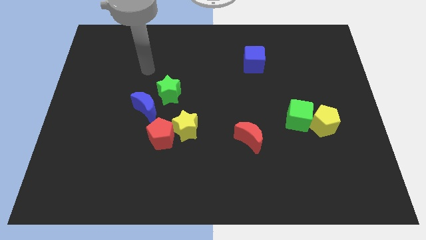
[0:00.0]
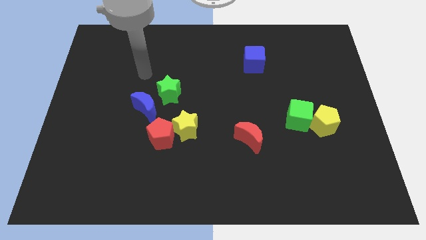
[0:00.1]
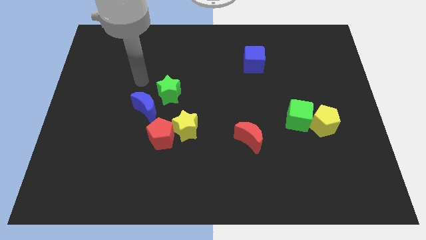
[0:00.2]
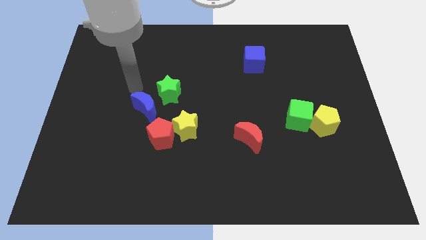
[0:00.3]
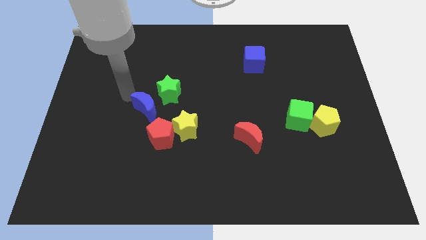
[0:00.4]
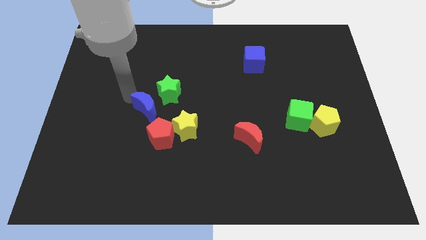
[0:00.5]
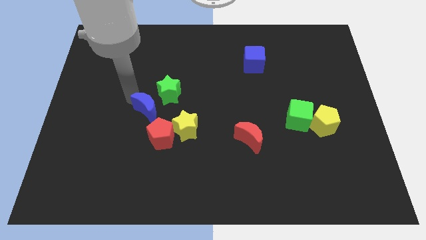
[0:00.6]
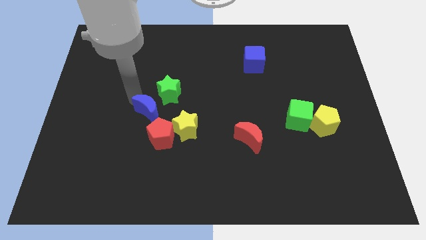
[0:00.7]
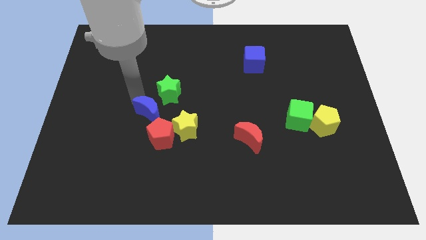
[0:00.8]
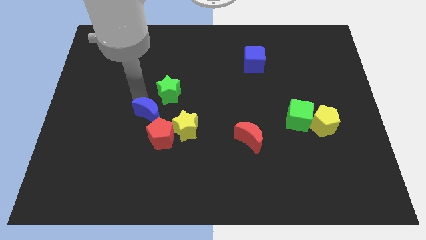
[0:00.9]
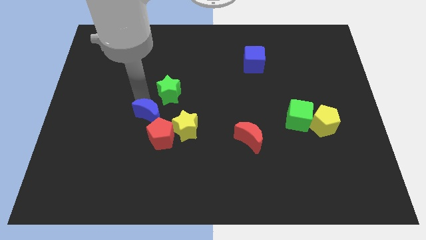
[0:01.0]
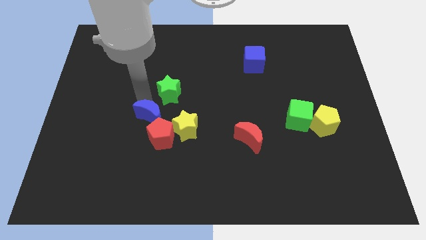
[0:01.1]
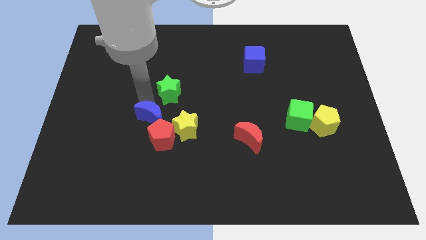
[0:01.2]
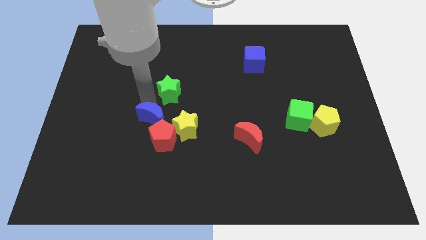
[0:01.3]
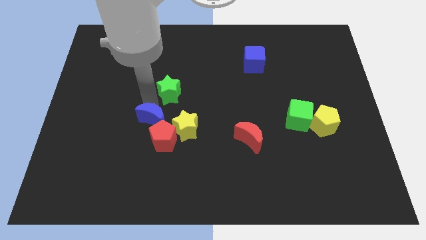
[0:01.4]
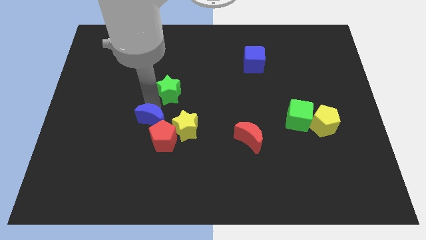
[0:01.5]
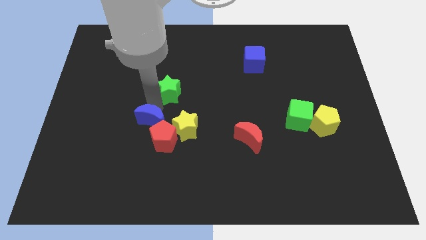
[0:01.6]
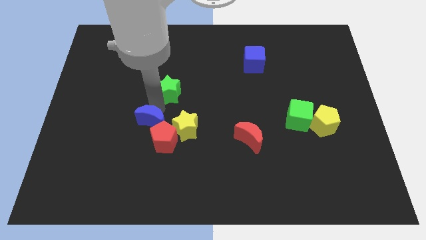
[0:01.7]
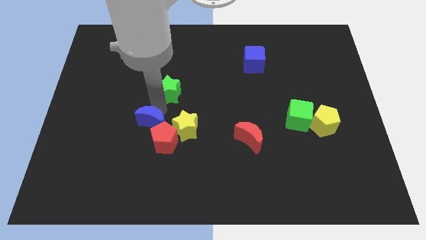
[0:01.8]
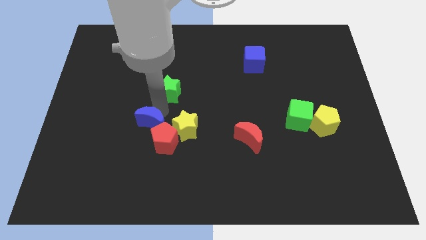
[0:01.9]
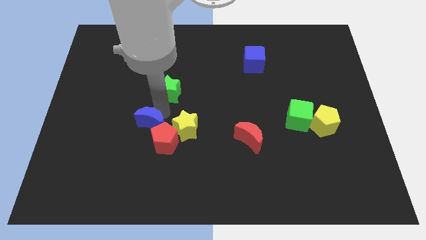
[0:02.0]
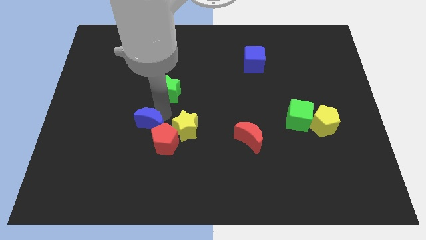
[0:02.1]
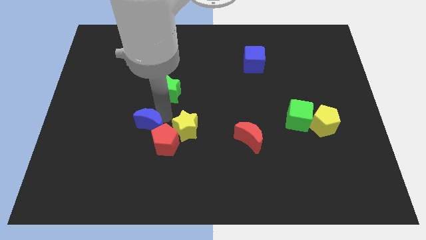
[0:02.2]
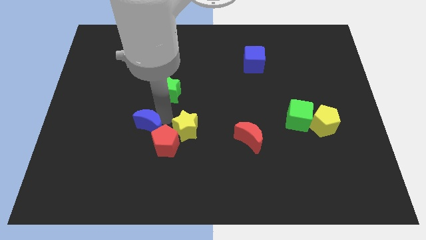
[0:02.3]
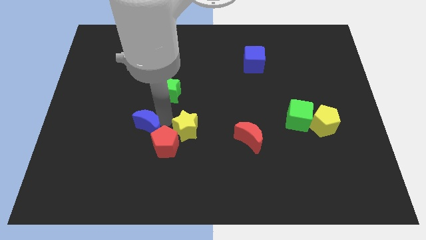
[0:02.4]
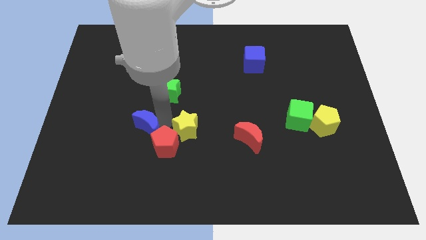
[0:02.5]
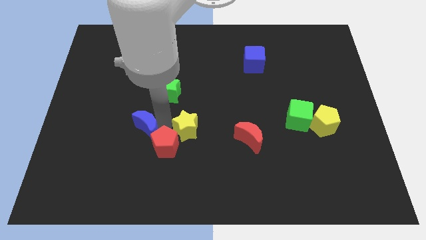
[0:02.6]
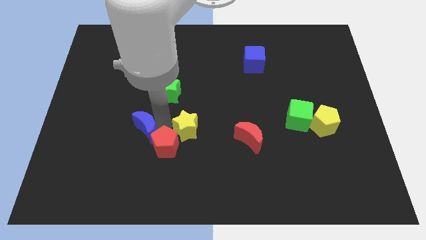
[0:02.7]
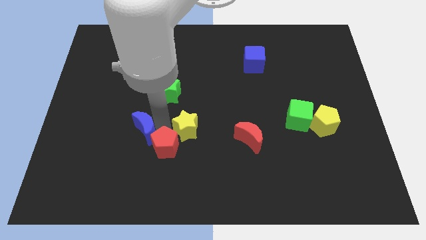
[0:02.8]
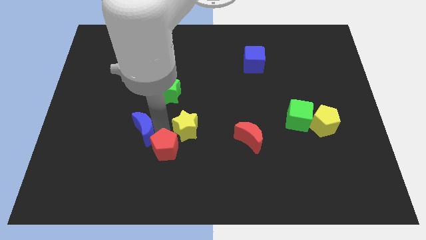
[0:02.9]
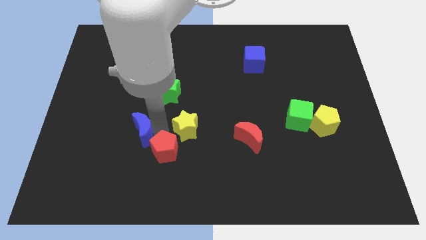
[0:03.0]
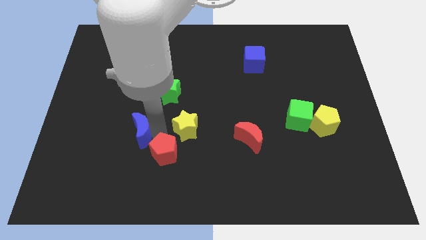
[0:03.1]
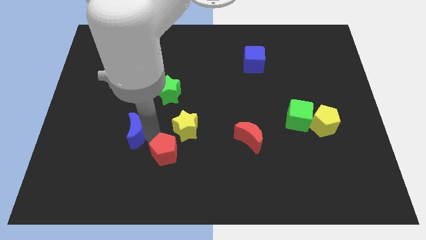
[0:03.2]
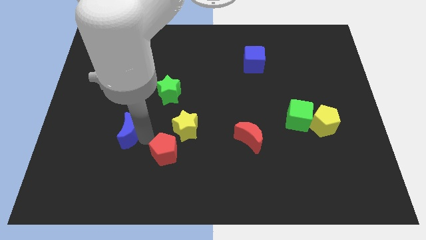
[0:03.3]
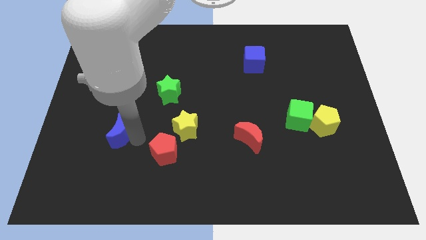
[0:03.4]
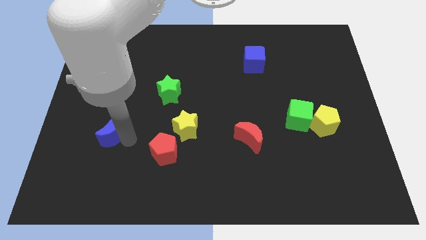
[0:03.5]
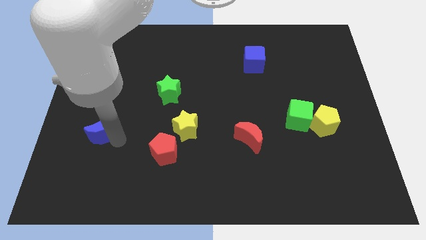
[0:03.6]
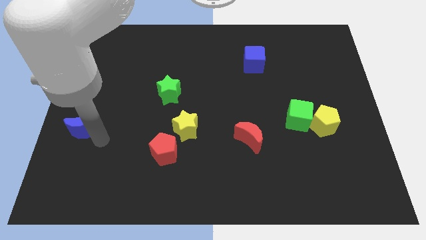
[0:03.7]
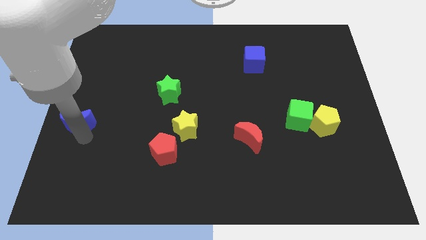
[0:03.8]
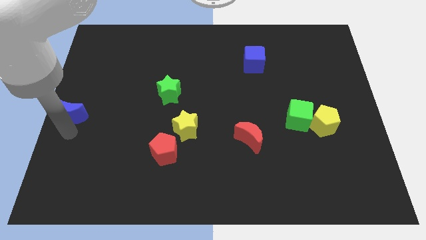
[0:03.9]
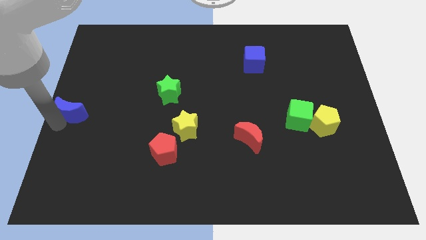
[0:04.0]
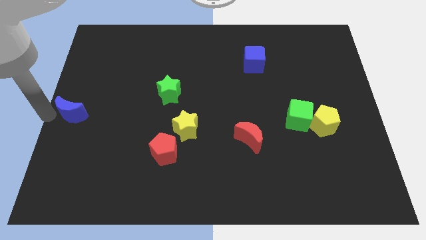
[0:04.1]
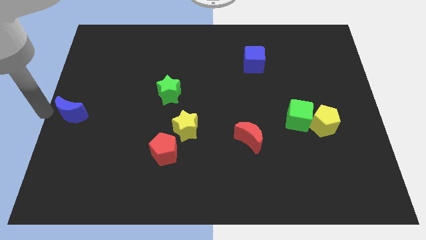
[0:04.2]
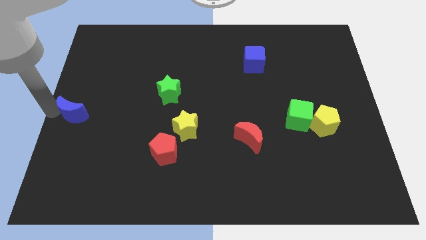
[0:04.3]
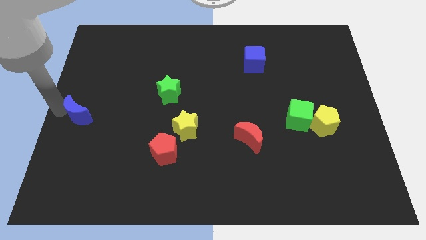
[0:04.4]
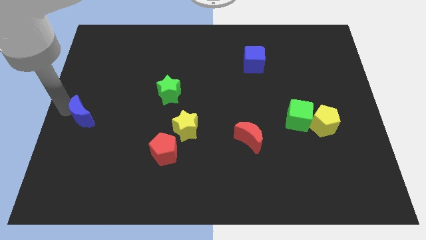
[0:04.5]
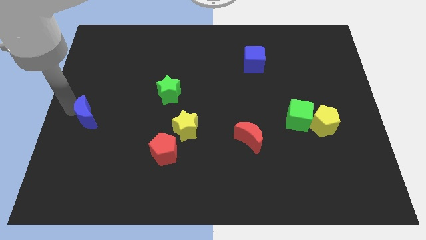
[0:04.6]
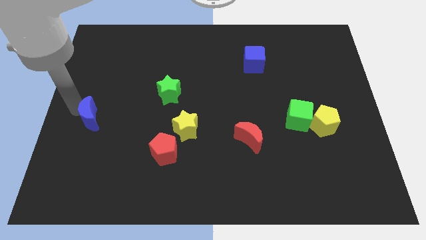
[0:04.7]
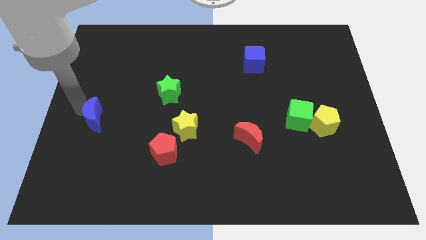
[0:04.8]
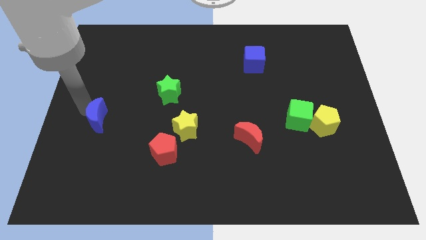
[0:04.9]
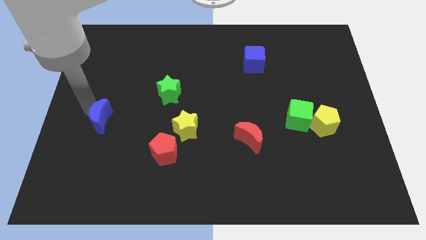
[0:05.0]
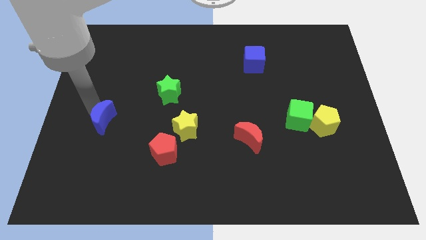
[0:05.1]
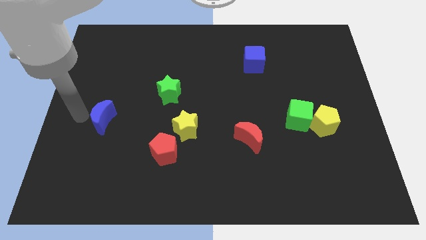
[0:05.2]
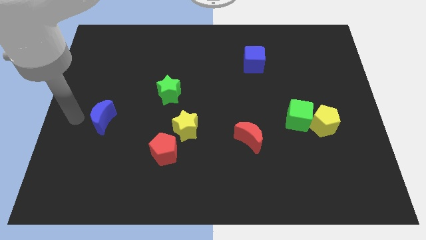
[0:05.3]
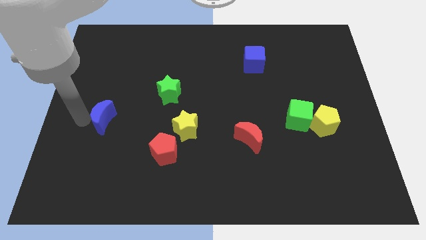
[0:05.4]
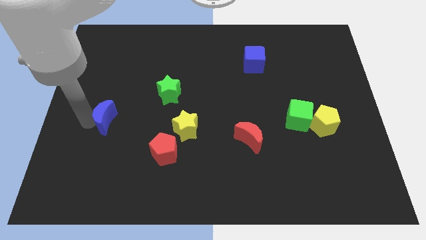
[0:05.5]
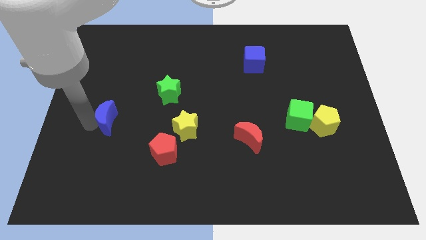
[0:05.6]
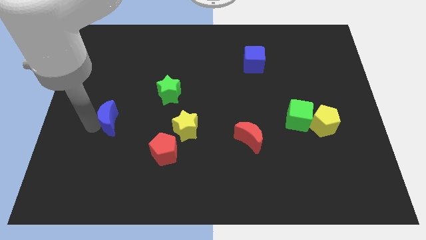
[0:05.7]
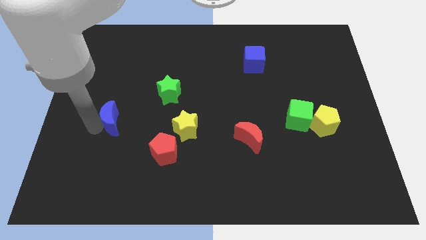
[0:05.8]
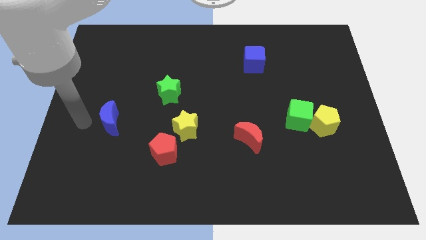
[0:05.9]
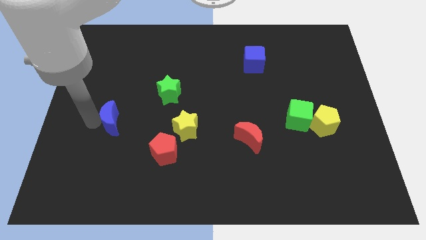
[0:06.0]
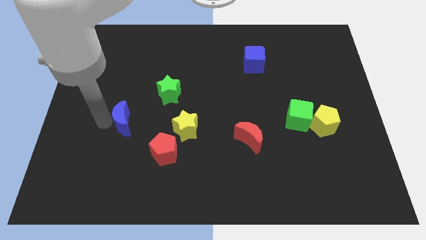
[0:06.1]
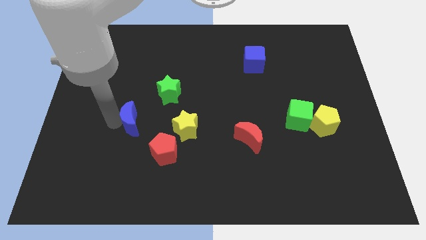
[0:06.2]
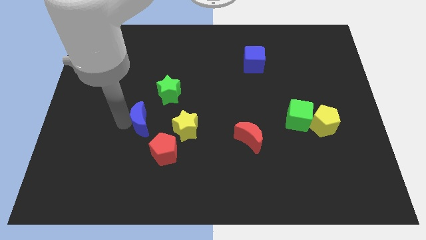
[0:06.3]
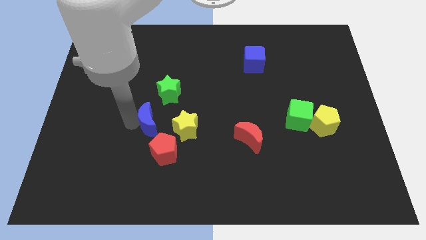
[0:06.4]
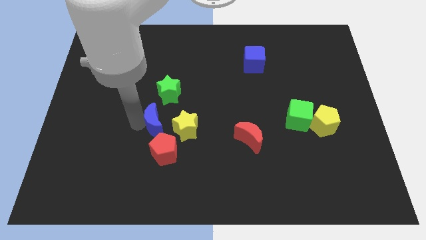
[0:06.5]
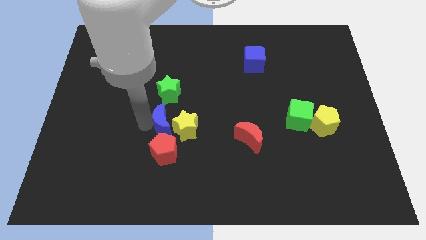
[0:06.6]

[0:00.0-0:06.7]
push the blue moon close to the yellow star

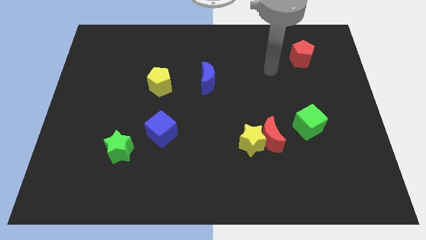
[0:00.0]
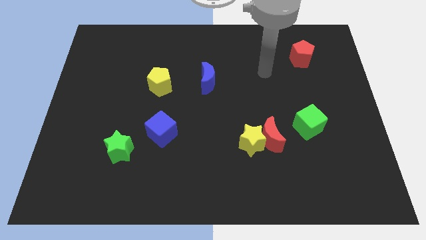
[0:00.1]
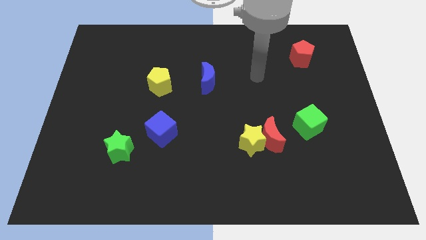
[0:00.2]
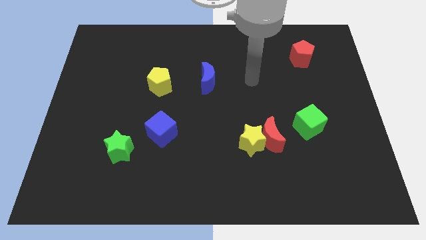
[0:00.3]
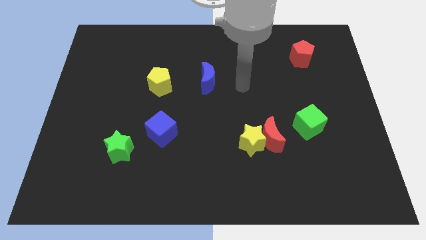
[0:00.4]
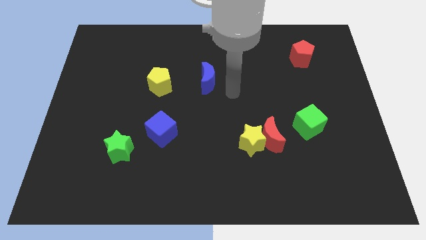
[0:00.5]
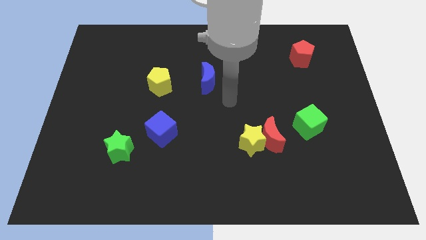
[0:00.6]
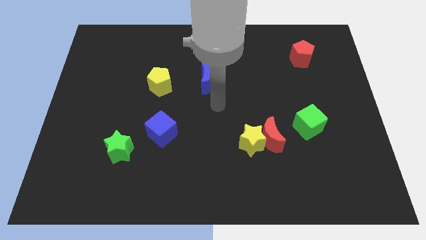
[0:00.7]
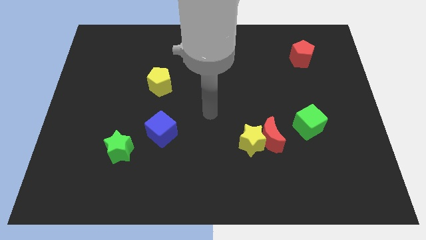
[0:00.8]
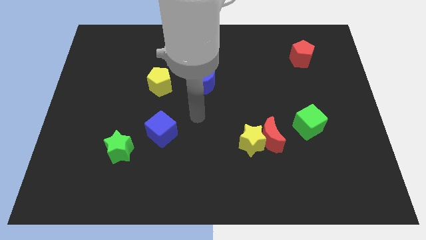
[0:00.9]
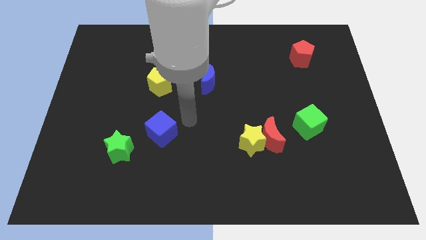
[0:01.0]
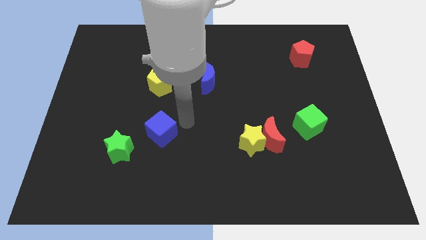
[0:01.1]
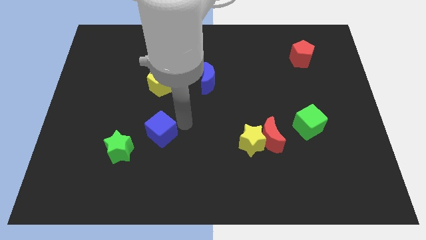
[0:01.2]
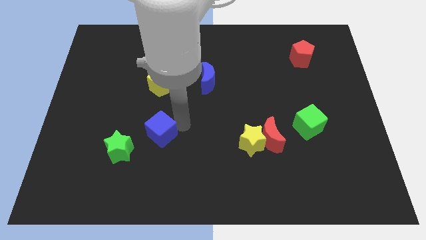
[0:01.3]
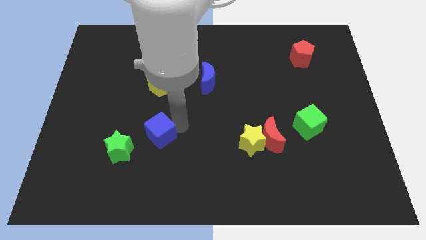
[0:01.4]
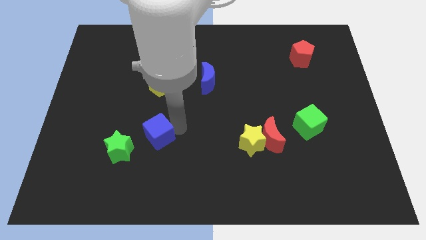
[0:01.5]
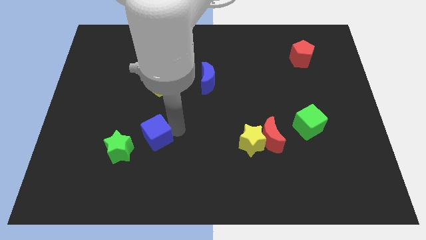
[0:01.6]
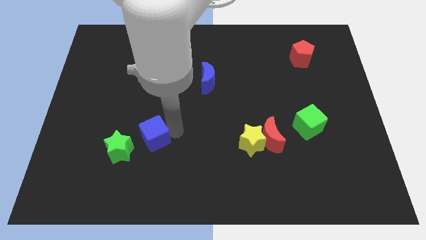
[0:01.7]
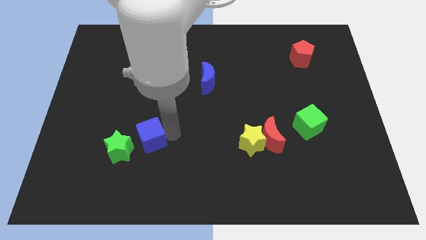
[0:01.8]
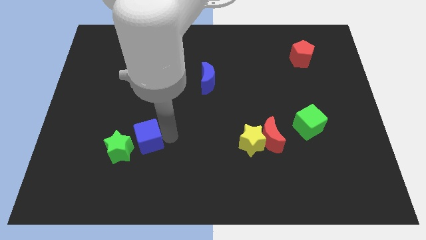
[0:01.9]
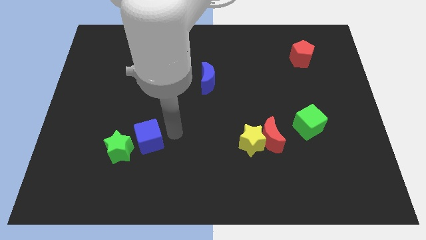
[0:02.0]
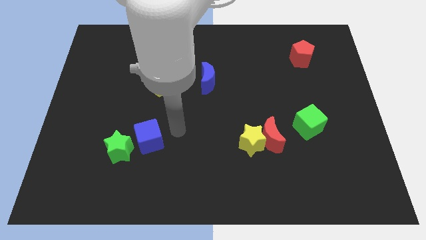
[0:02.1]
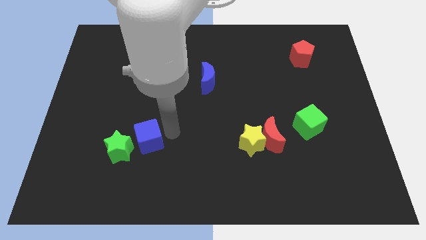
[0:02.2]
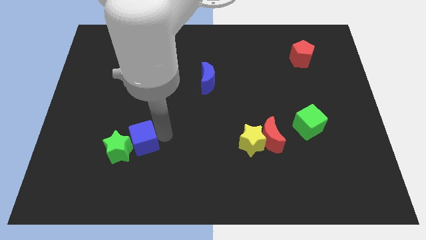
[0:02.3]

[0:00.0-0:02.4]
slide the blue cube close to the green star
